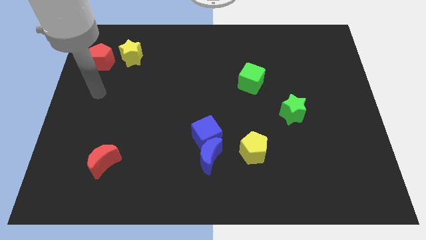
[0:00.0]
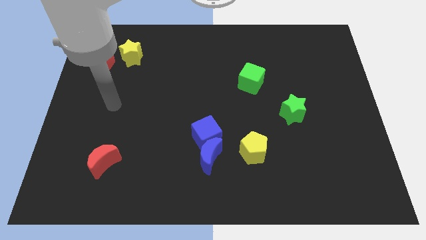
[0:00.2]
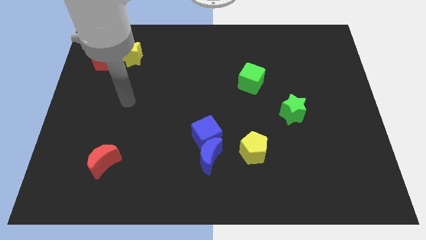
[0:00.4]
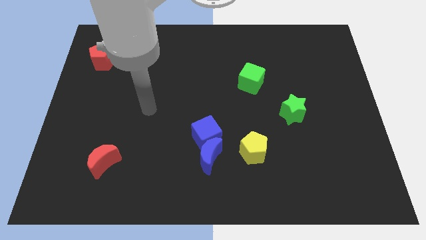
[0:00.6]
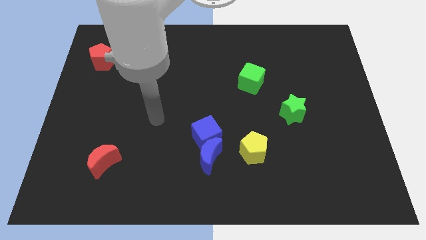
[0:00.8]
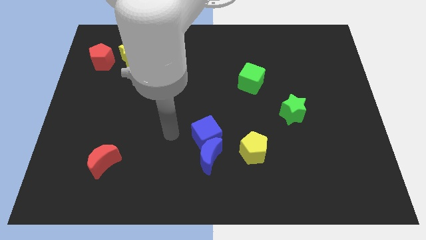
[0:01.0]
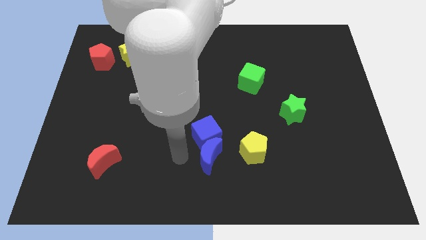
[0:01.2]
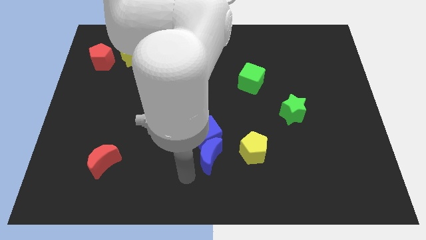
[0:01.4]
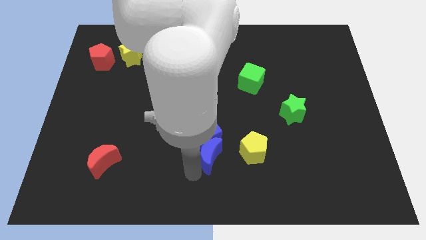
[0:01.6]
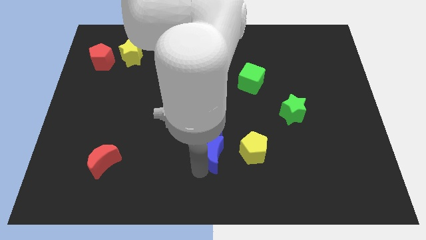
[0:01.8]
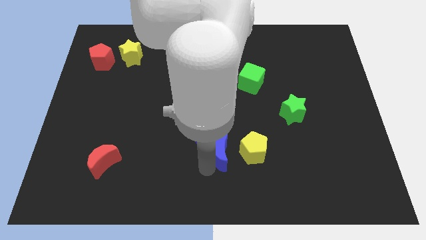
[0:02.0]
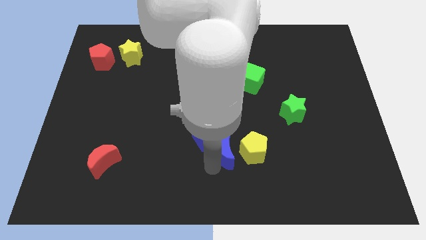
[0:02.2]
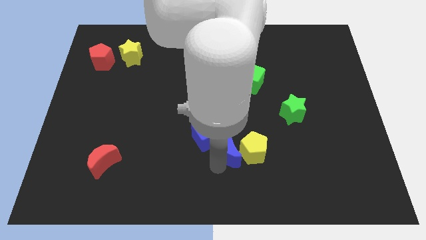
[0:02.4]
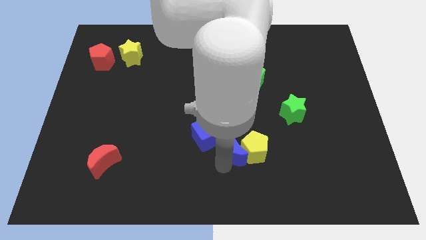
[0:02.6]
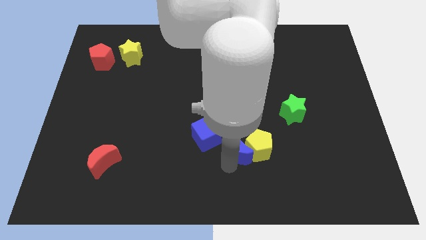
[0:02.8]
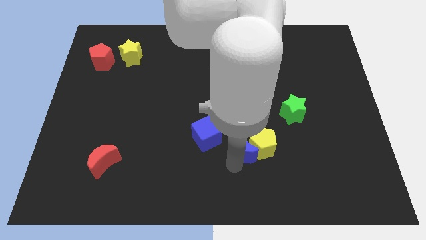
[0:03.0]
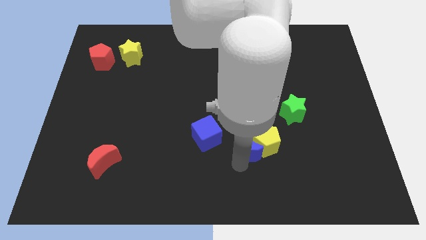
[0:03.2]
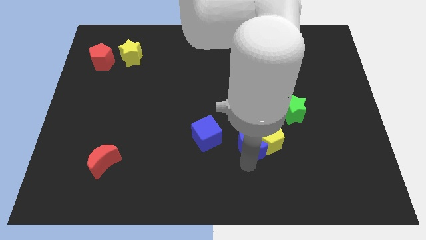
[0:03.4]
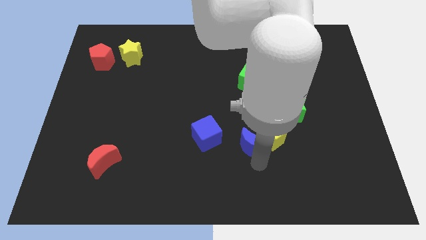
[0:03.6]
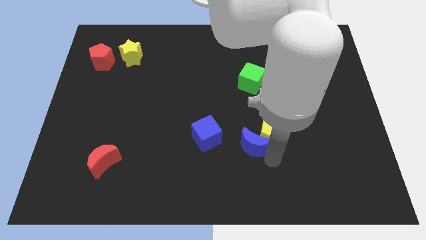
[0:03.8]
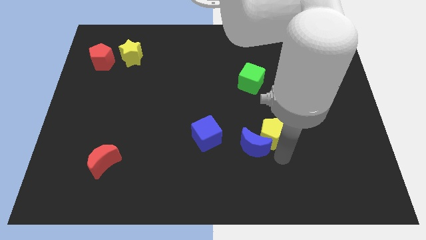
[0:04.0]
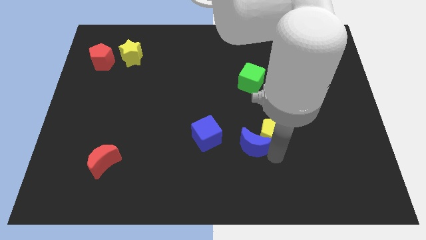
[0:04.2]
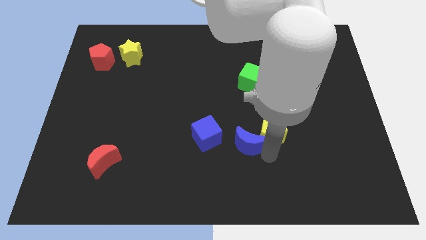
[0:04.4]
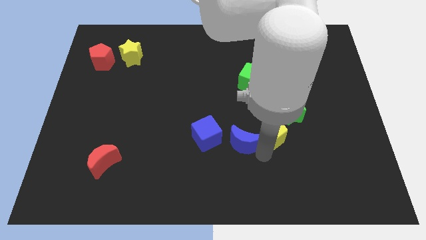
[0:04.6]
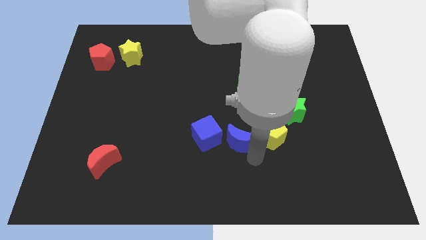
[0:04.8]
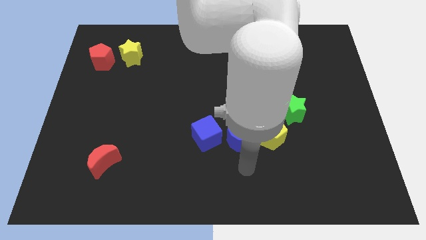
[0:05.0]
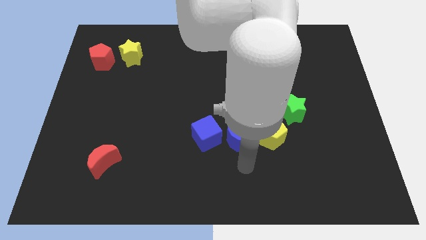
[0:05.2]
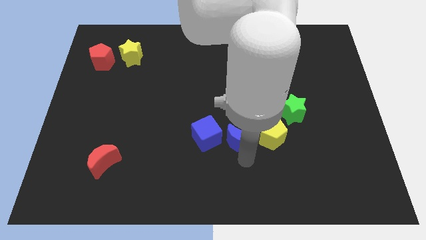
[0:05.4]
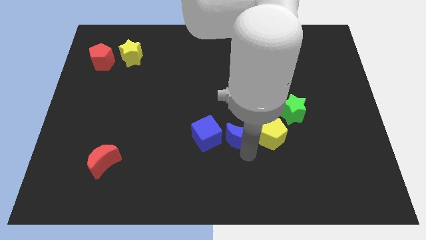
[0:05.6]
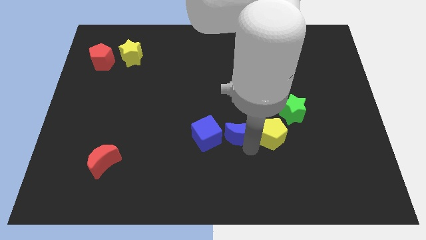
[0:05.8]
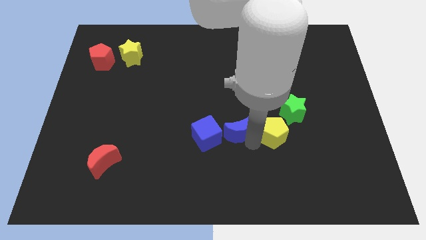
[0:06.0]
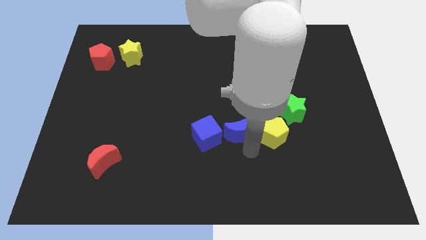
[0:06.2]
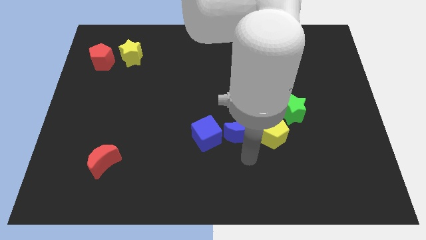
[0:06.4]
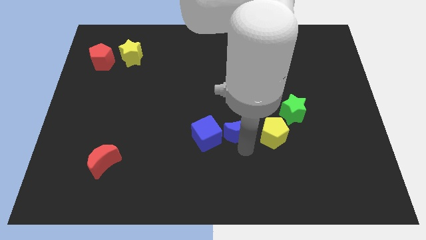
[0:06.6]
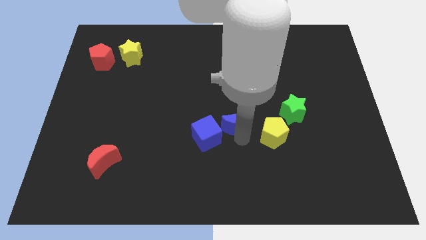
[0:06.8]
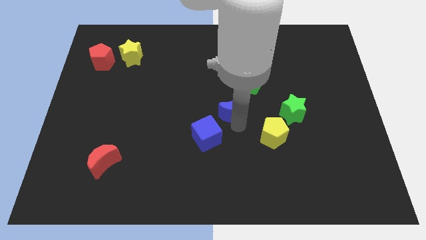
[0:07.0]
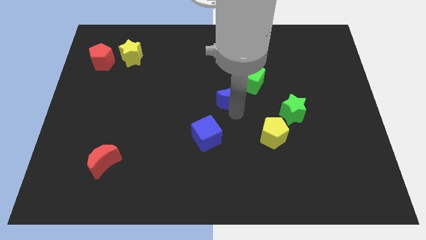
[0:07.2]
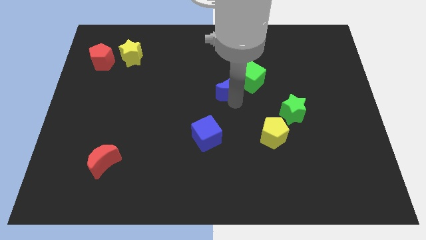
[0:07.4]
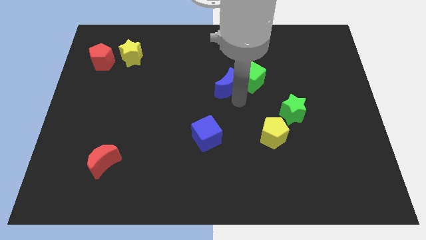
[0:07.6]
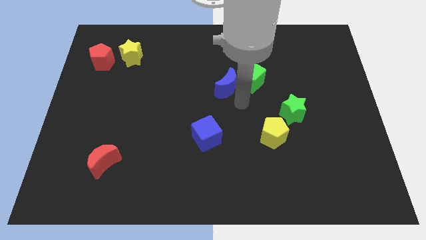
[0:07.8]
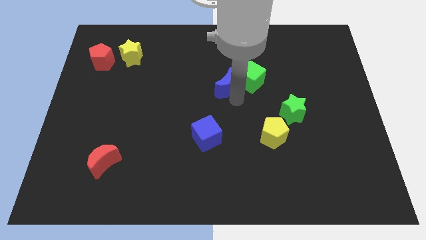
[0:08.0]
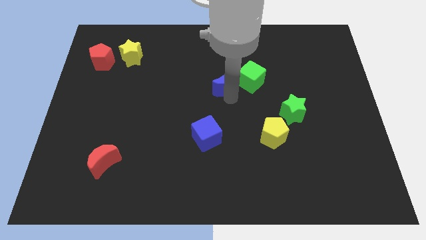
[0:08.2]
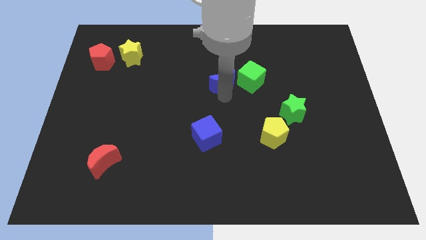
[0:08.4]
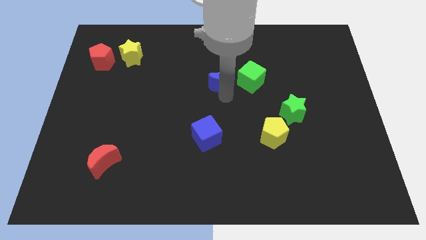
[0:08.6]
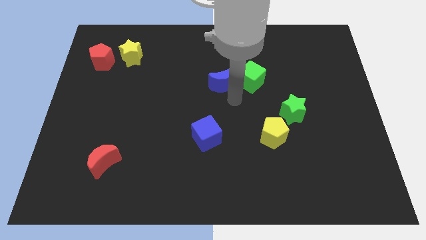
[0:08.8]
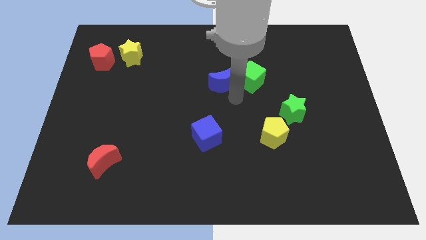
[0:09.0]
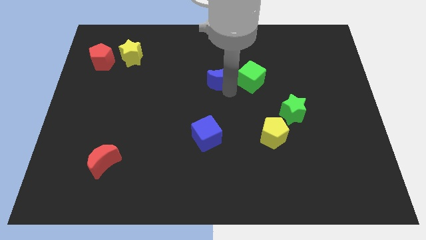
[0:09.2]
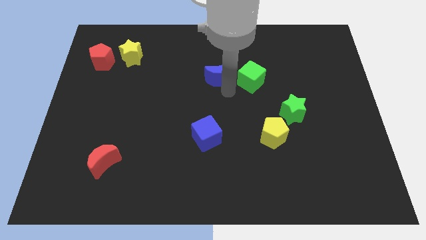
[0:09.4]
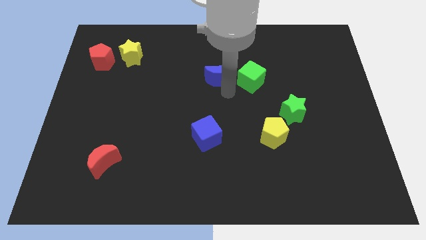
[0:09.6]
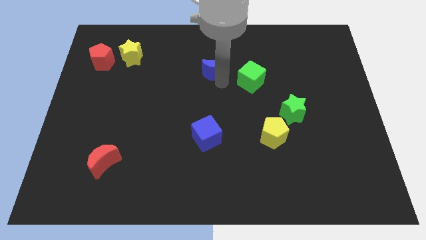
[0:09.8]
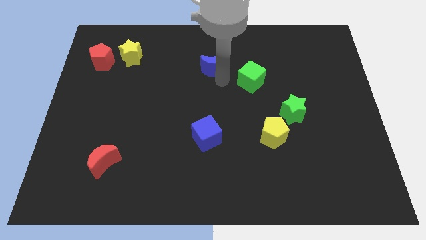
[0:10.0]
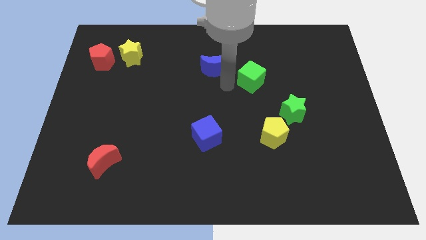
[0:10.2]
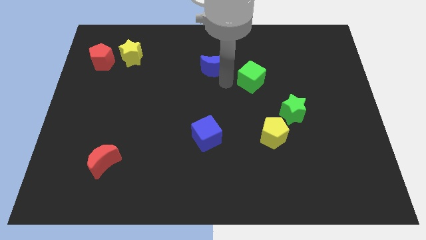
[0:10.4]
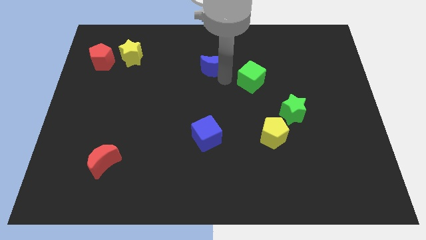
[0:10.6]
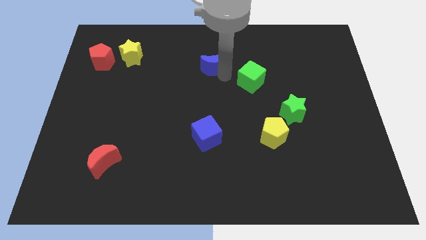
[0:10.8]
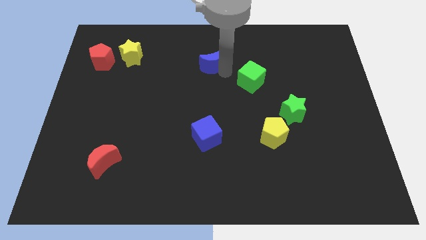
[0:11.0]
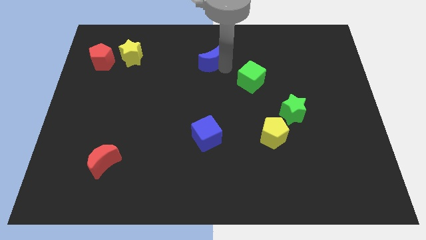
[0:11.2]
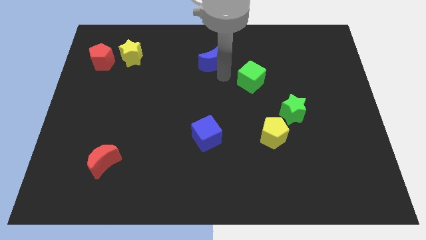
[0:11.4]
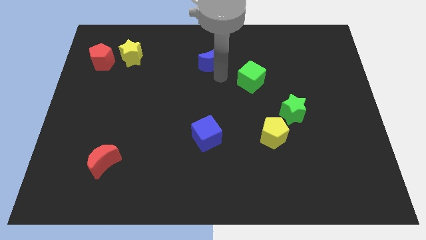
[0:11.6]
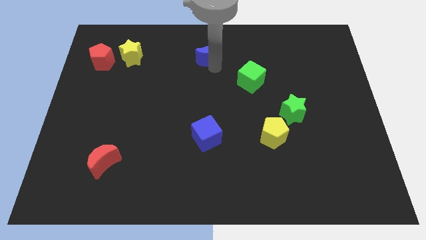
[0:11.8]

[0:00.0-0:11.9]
slide the blue moon to the towards your base
